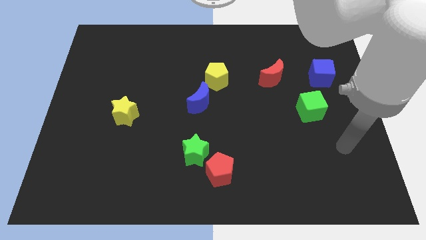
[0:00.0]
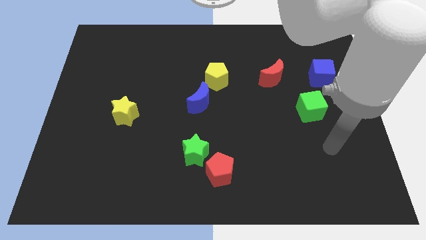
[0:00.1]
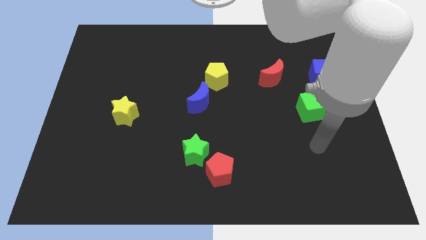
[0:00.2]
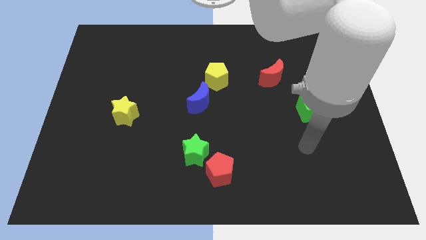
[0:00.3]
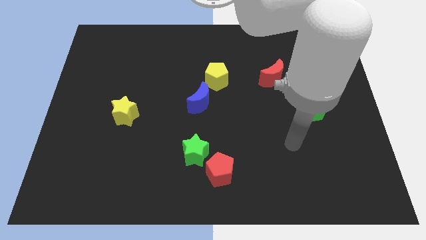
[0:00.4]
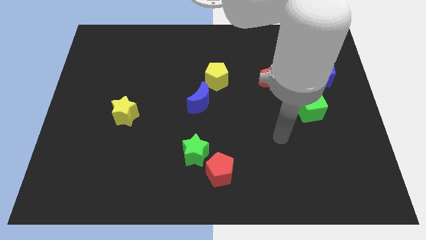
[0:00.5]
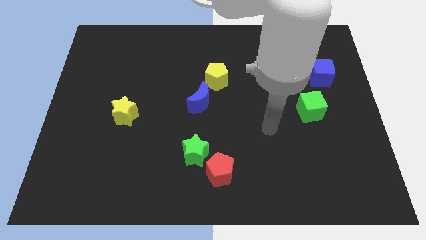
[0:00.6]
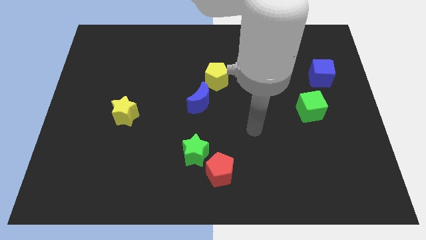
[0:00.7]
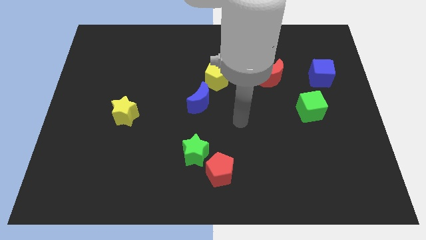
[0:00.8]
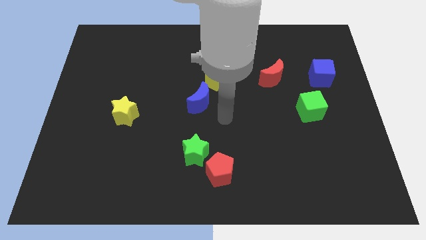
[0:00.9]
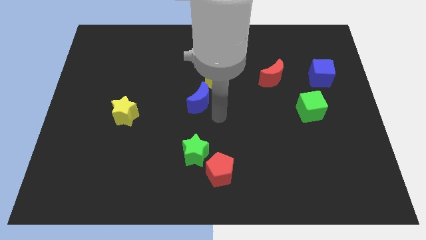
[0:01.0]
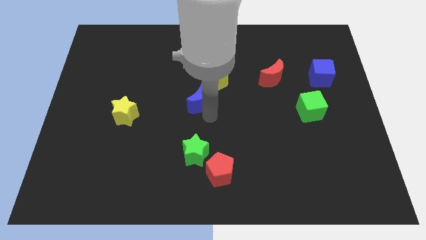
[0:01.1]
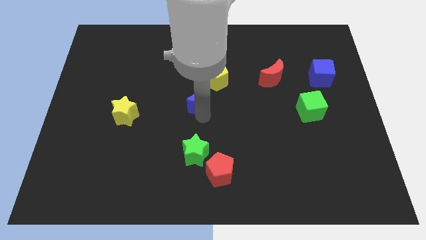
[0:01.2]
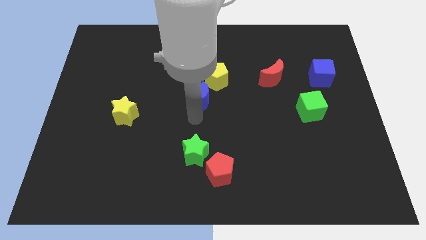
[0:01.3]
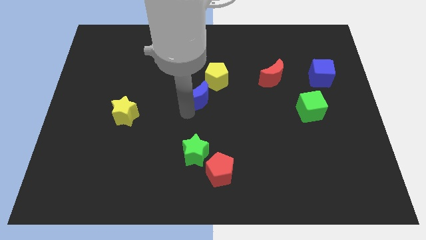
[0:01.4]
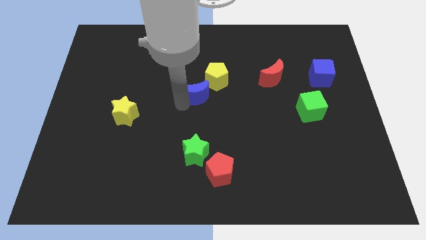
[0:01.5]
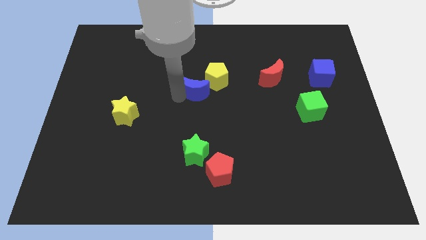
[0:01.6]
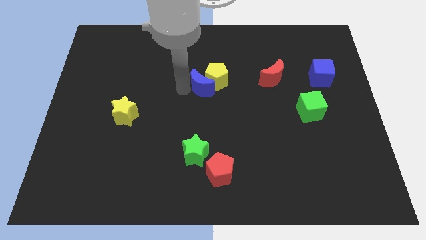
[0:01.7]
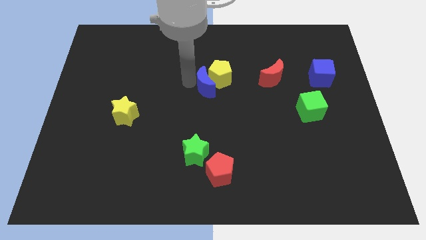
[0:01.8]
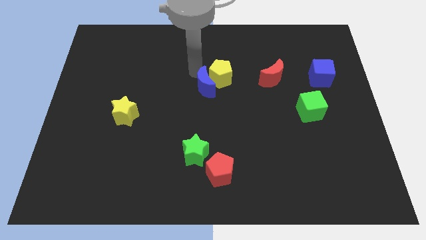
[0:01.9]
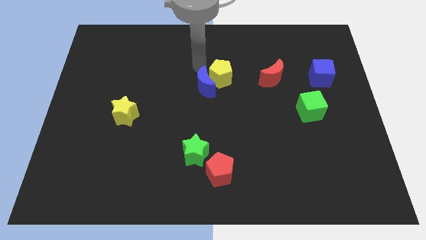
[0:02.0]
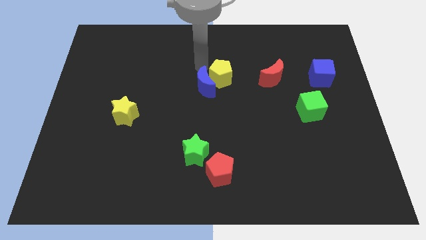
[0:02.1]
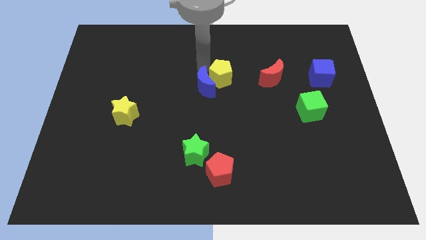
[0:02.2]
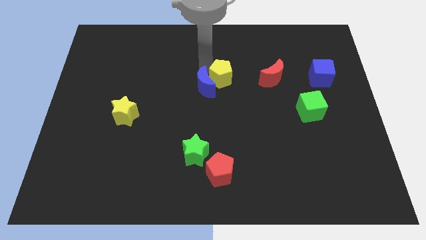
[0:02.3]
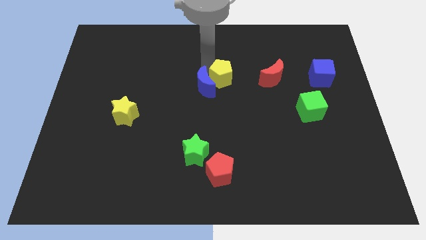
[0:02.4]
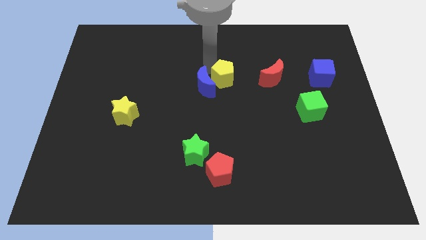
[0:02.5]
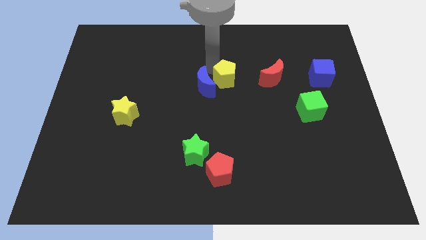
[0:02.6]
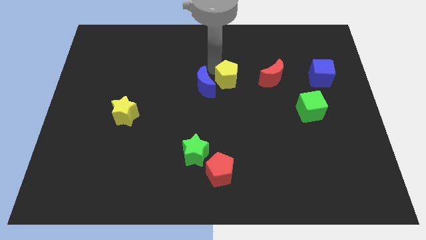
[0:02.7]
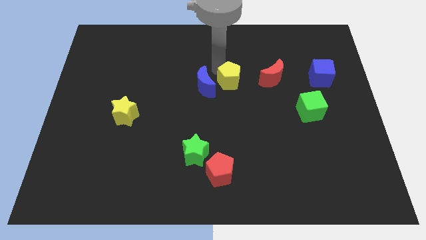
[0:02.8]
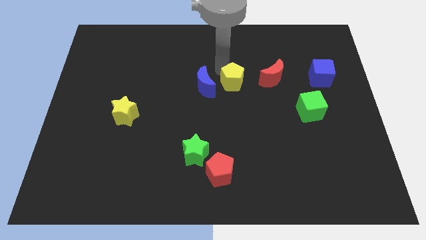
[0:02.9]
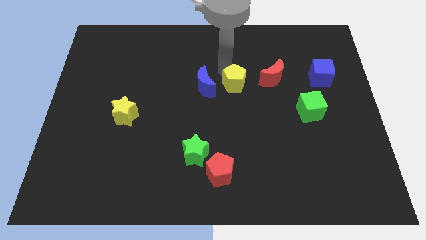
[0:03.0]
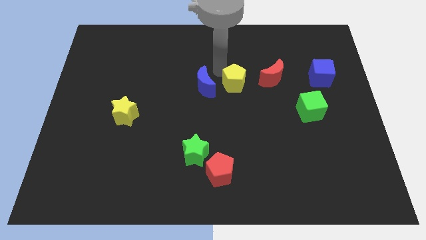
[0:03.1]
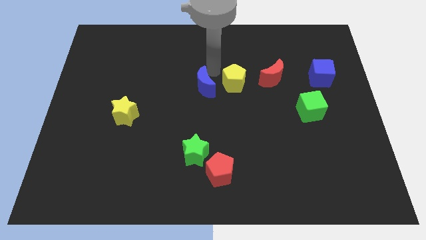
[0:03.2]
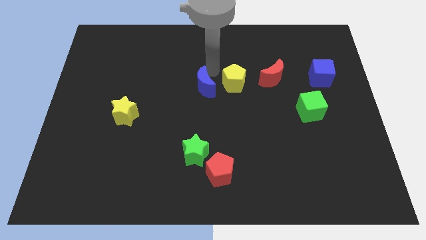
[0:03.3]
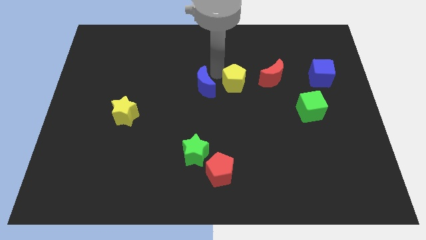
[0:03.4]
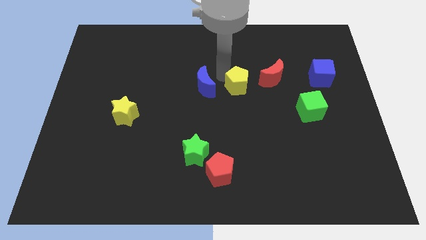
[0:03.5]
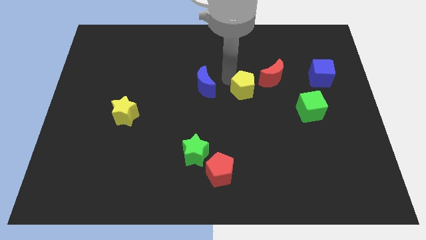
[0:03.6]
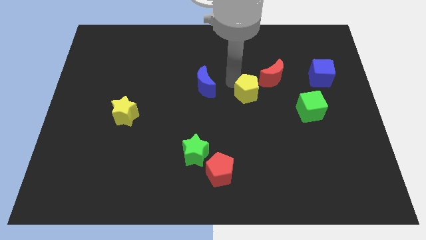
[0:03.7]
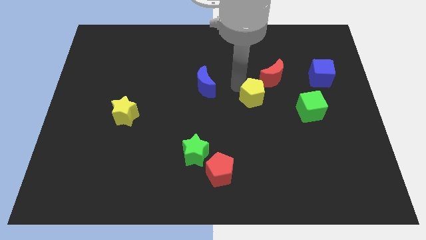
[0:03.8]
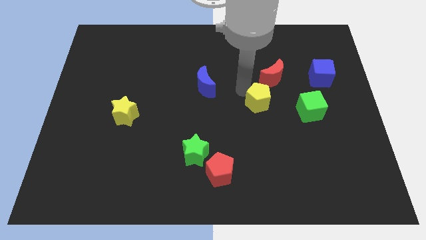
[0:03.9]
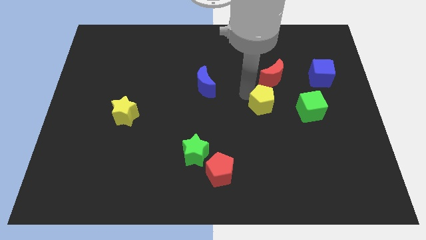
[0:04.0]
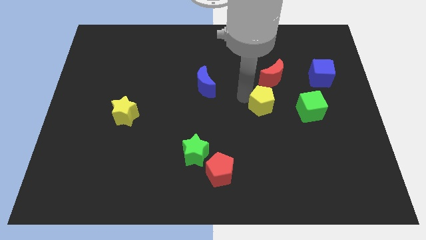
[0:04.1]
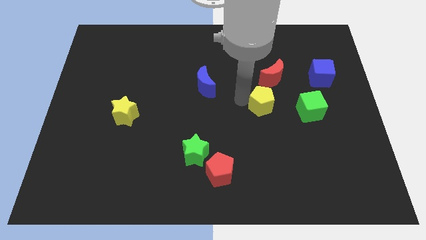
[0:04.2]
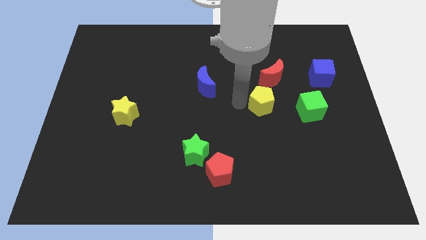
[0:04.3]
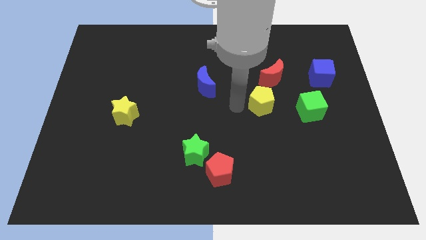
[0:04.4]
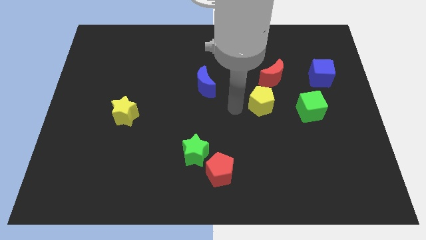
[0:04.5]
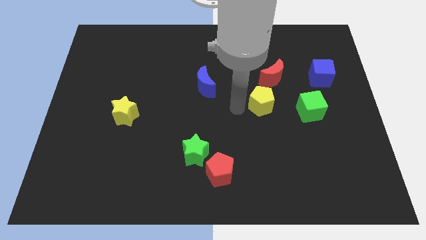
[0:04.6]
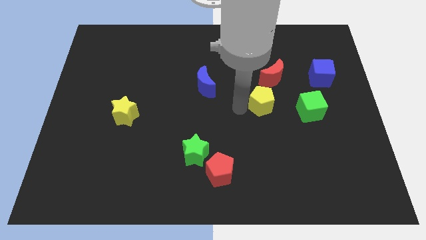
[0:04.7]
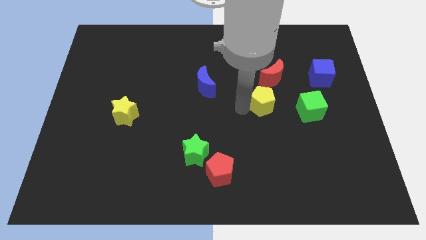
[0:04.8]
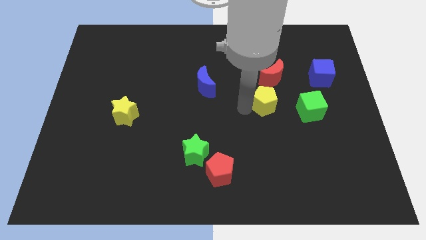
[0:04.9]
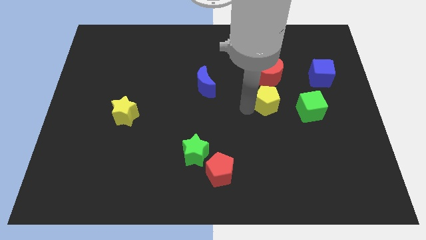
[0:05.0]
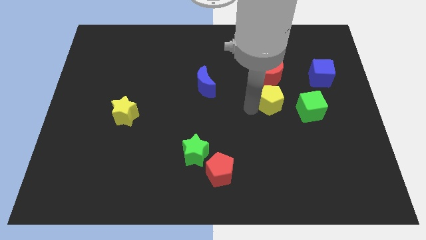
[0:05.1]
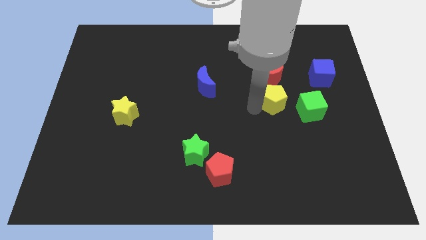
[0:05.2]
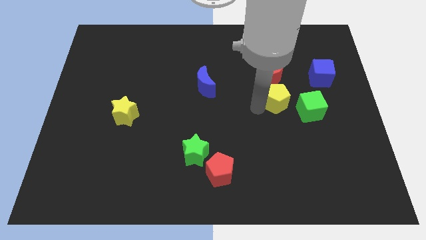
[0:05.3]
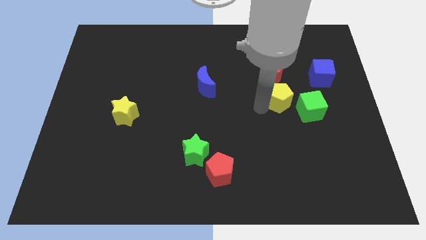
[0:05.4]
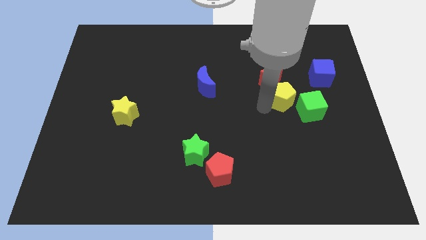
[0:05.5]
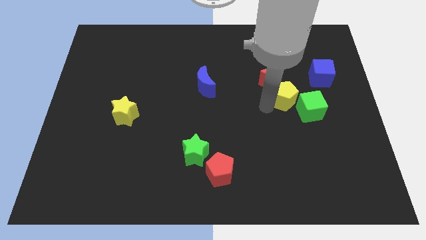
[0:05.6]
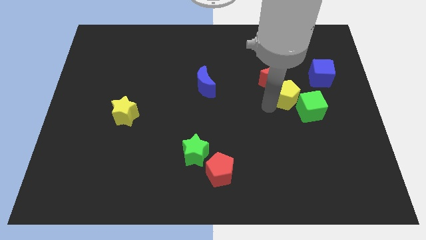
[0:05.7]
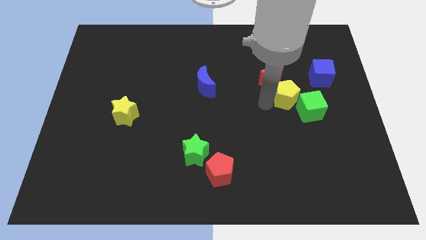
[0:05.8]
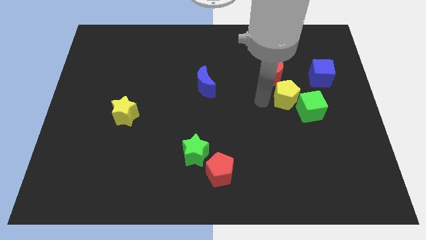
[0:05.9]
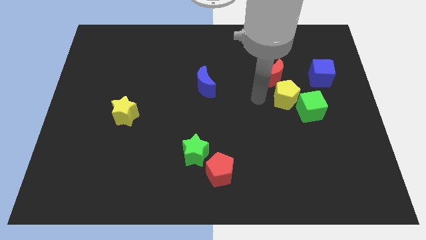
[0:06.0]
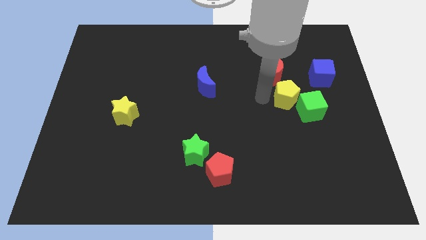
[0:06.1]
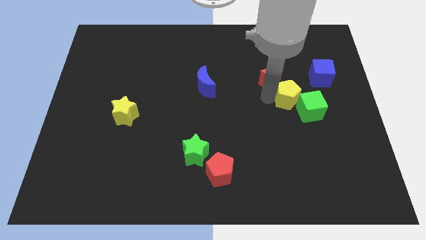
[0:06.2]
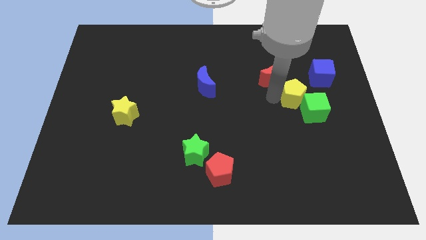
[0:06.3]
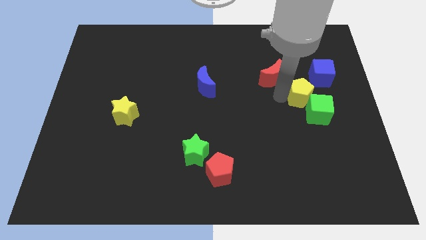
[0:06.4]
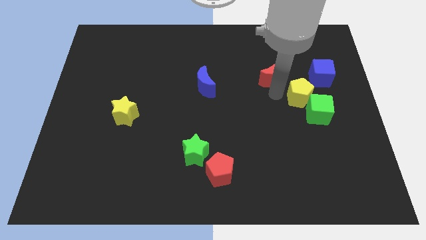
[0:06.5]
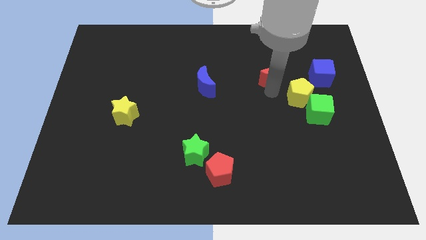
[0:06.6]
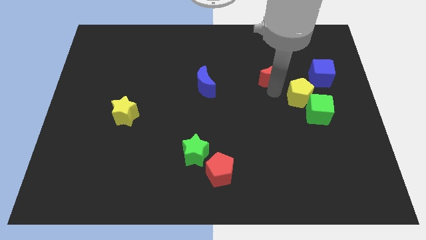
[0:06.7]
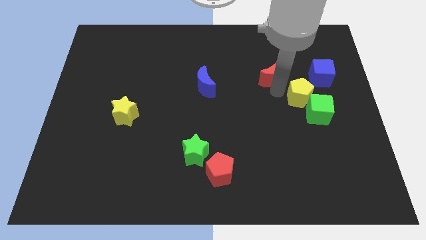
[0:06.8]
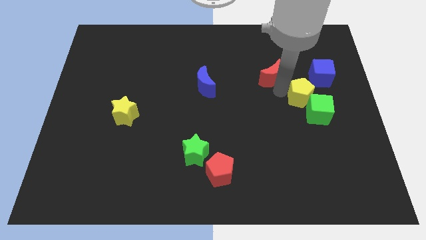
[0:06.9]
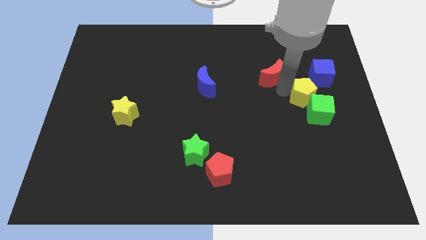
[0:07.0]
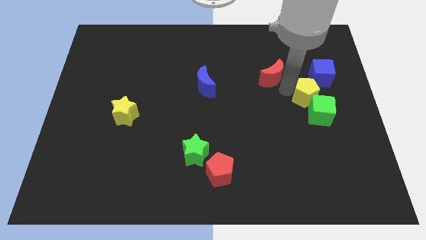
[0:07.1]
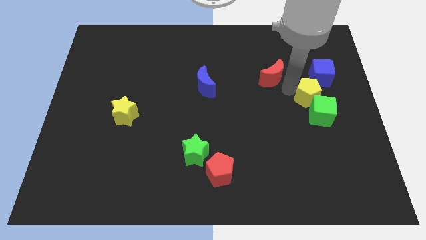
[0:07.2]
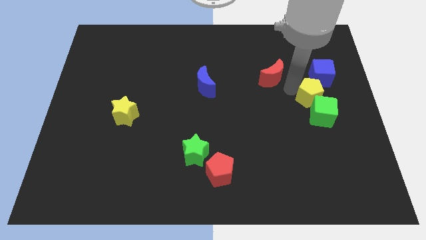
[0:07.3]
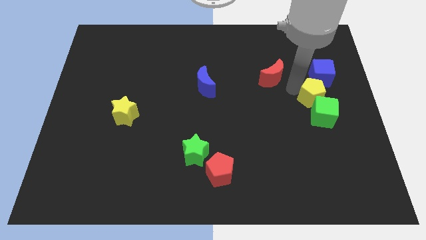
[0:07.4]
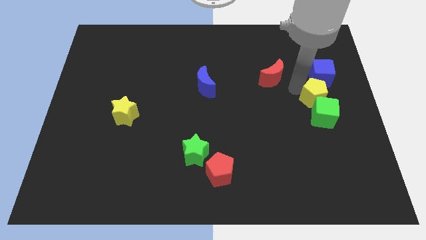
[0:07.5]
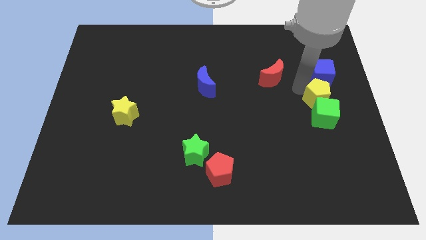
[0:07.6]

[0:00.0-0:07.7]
put the yellow pentagon to the center right
